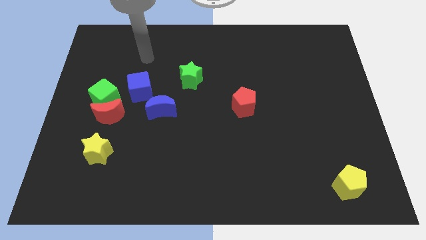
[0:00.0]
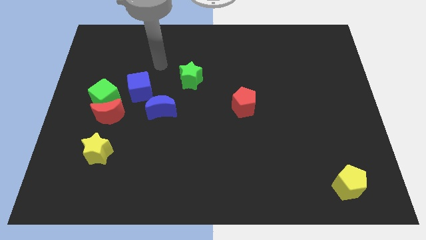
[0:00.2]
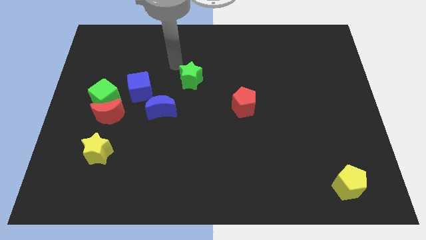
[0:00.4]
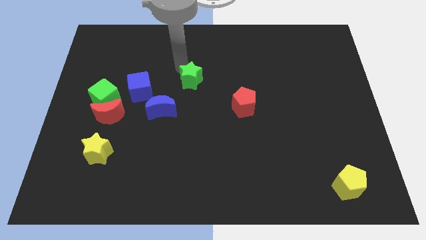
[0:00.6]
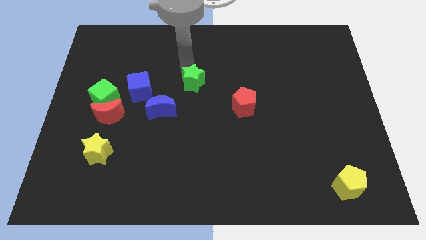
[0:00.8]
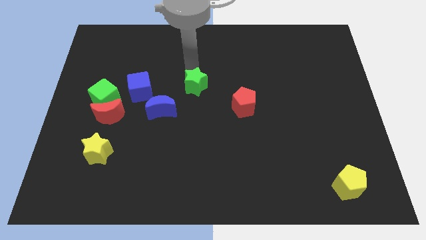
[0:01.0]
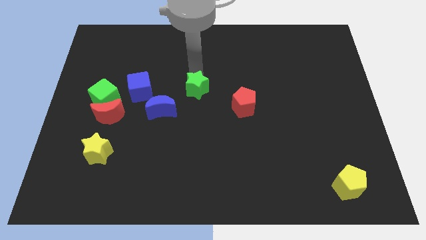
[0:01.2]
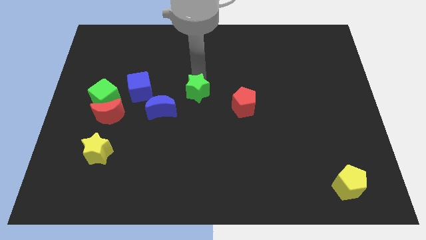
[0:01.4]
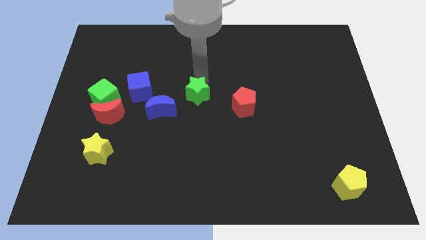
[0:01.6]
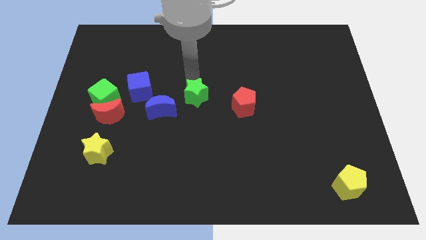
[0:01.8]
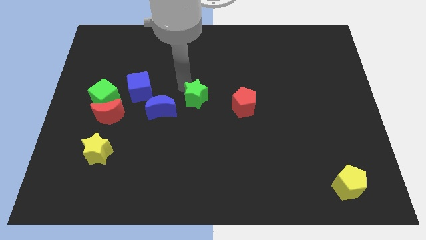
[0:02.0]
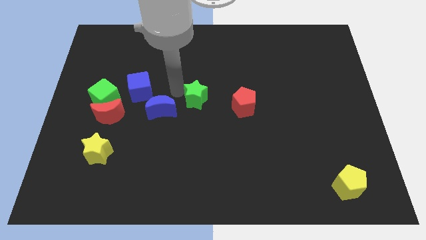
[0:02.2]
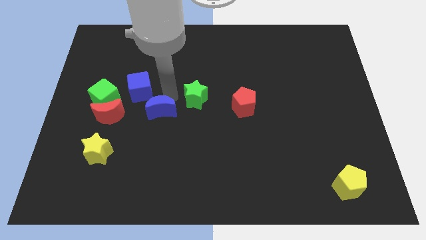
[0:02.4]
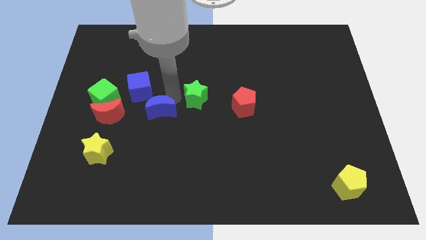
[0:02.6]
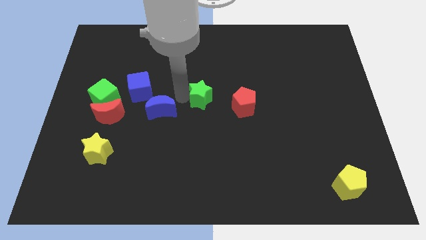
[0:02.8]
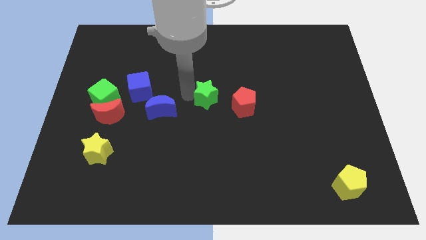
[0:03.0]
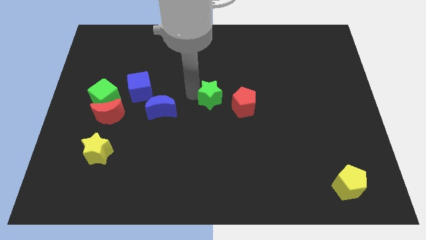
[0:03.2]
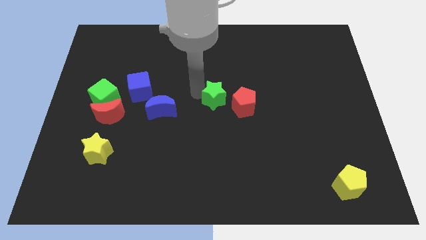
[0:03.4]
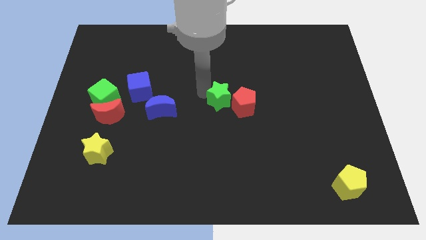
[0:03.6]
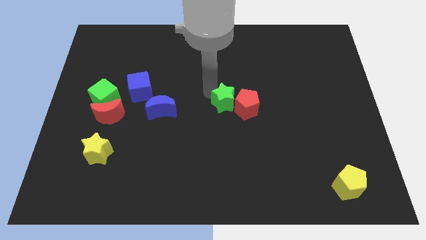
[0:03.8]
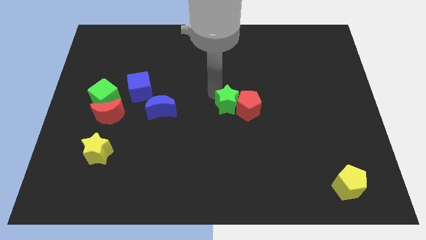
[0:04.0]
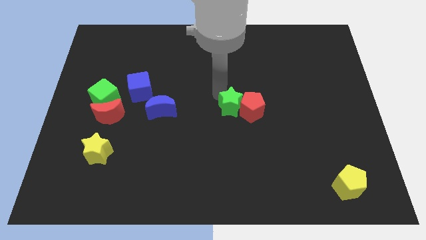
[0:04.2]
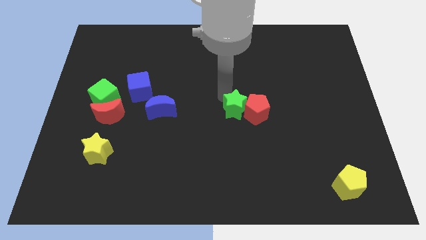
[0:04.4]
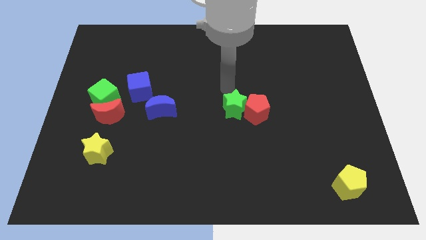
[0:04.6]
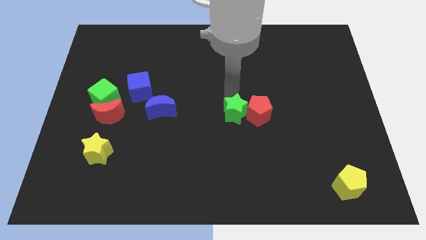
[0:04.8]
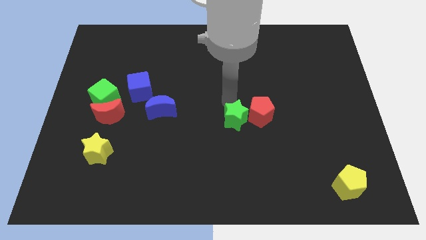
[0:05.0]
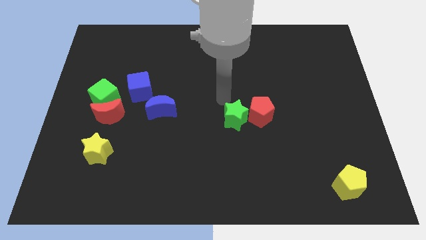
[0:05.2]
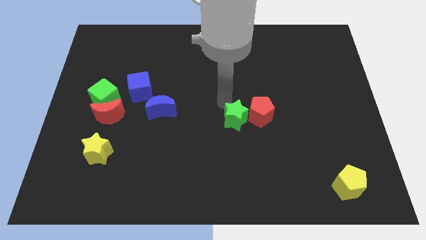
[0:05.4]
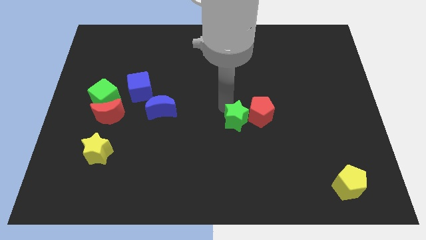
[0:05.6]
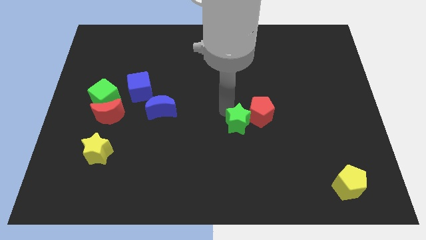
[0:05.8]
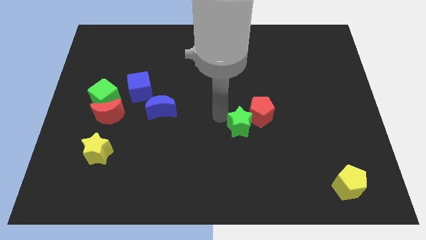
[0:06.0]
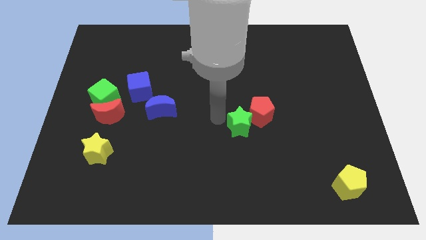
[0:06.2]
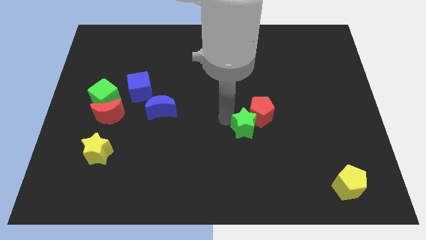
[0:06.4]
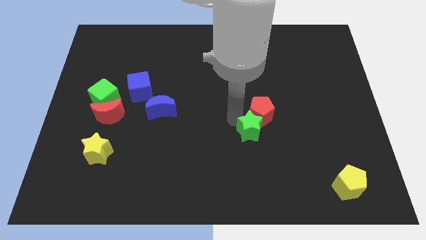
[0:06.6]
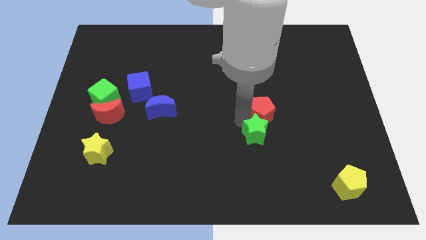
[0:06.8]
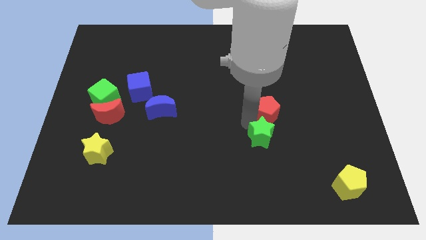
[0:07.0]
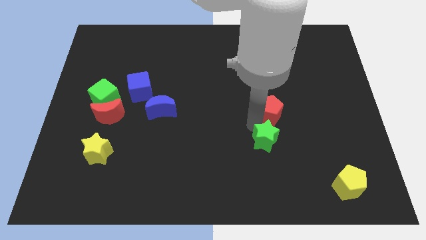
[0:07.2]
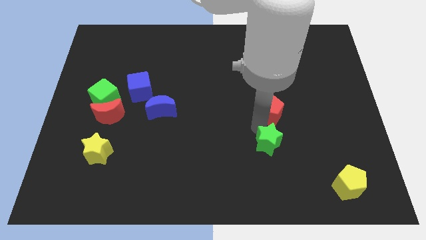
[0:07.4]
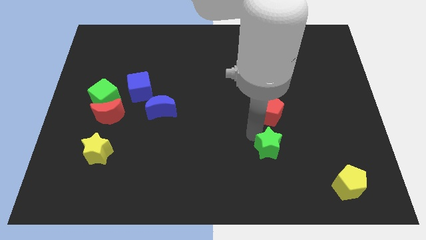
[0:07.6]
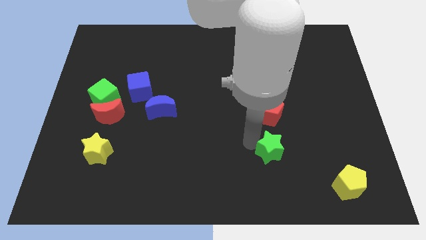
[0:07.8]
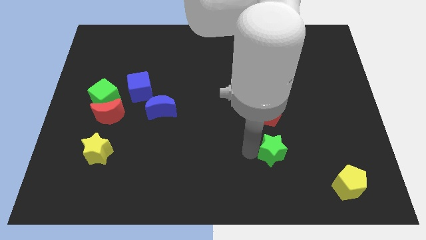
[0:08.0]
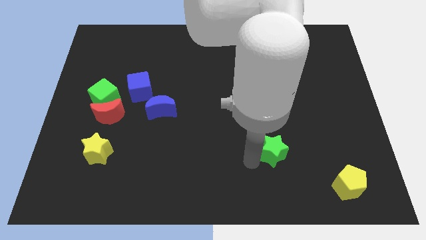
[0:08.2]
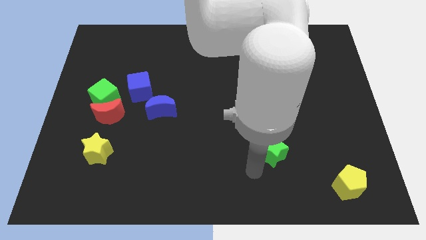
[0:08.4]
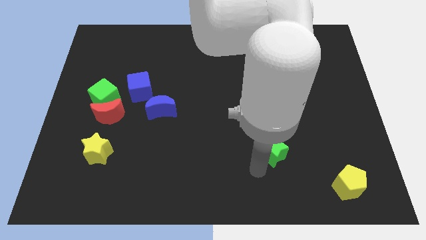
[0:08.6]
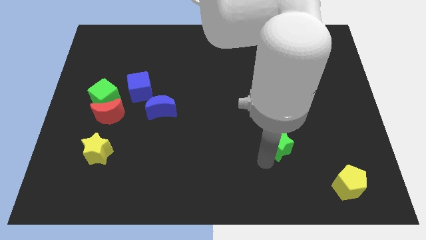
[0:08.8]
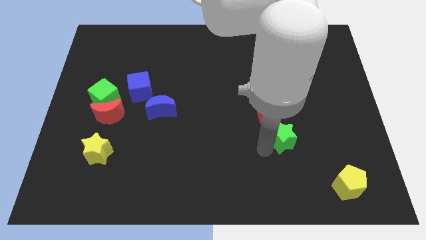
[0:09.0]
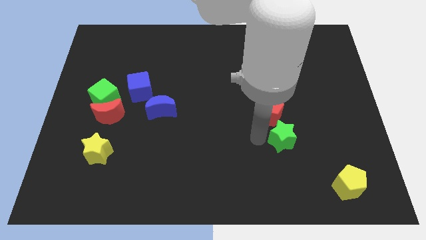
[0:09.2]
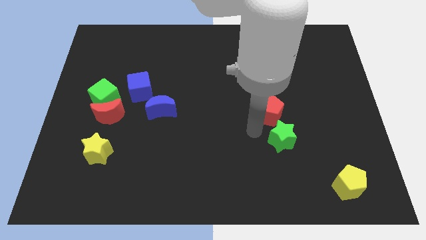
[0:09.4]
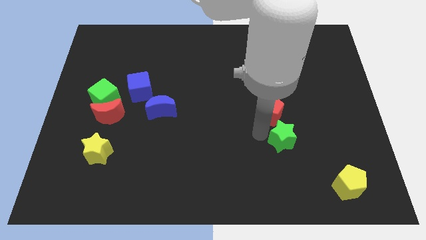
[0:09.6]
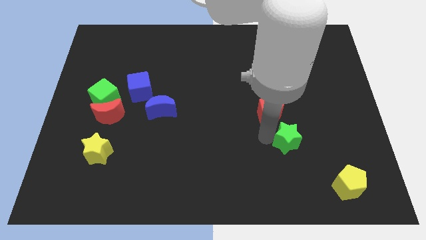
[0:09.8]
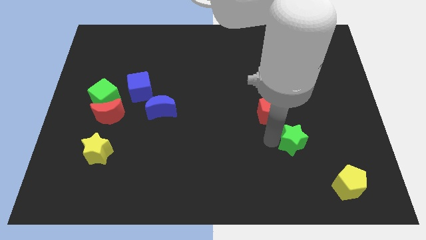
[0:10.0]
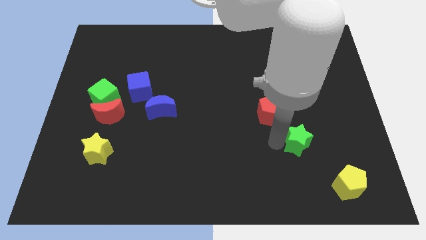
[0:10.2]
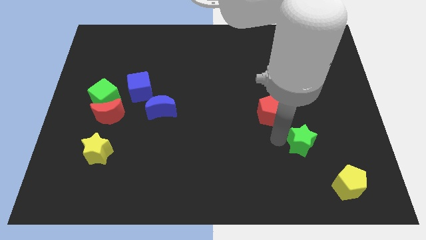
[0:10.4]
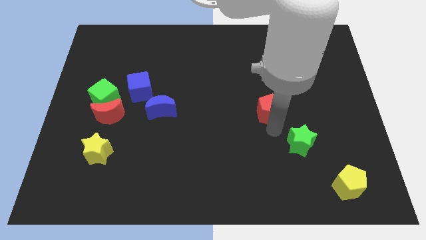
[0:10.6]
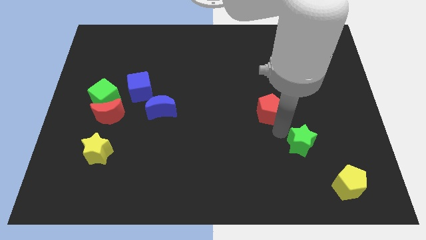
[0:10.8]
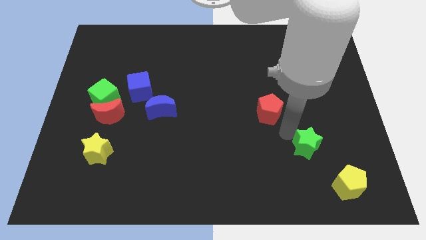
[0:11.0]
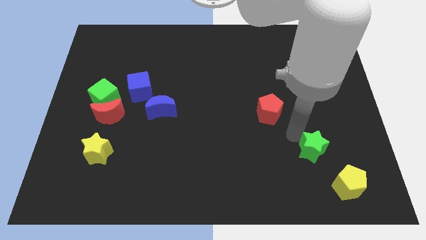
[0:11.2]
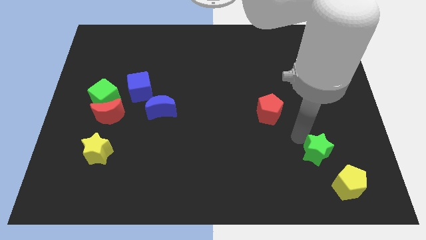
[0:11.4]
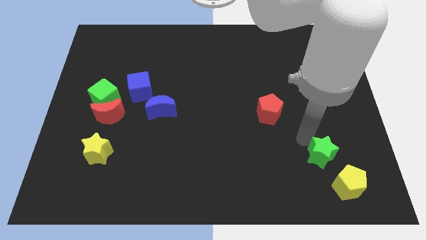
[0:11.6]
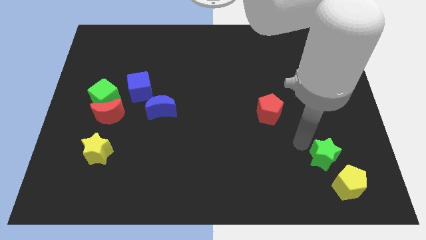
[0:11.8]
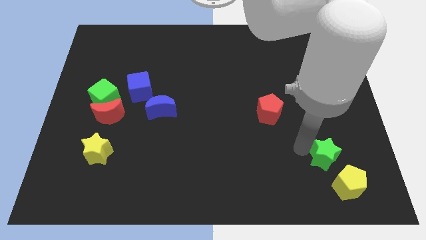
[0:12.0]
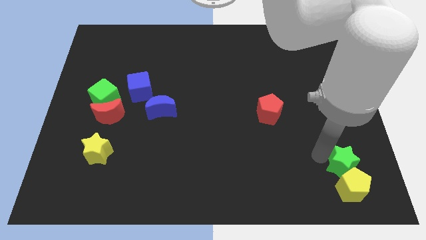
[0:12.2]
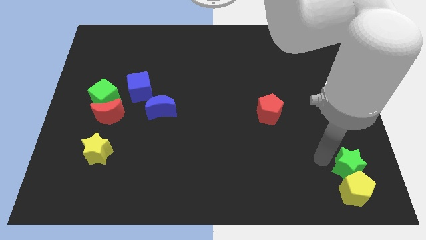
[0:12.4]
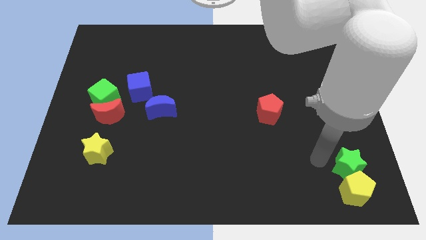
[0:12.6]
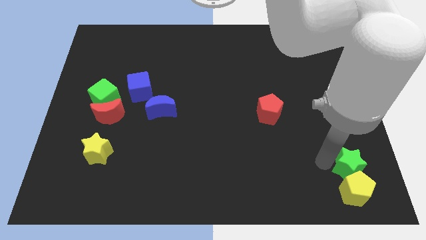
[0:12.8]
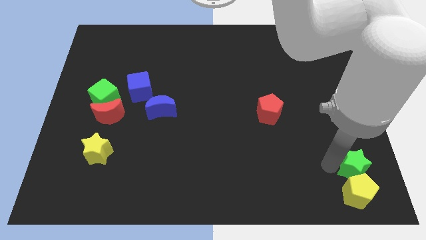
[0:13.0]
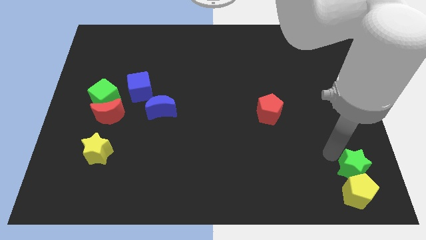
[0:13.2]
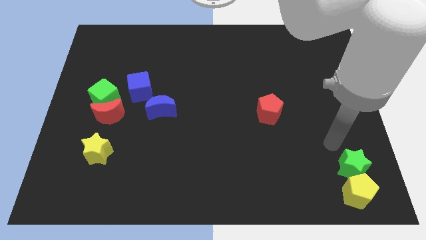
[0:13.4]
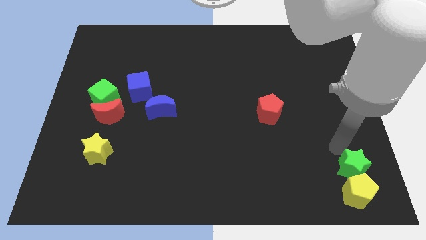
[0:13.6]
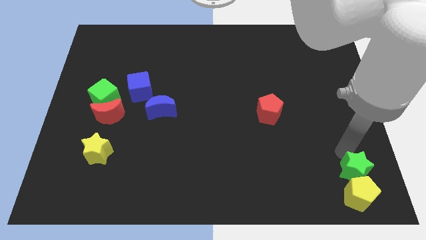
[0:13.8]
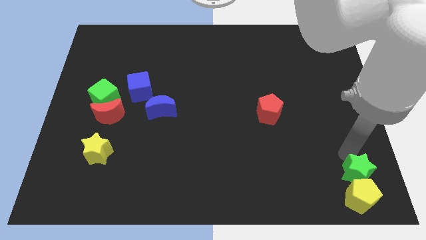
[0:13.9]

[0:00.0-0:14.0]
put the green star to the bottom right
